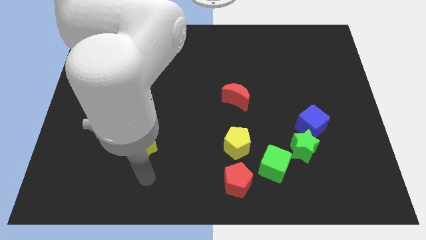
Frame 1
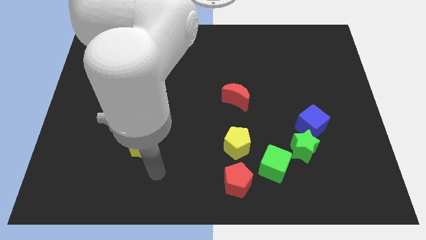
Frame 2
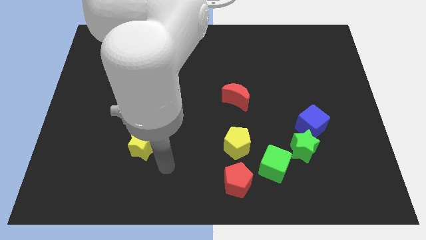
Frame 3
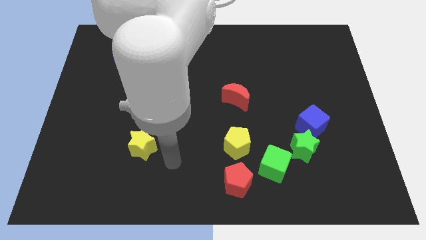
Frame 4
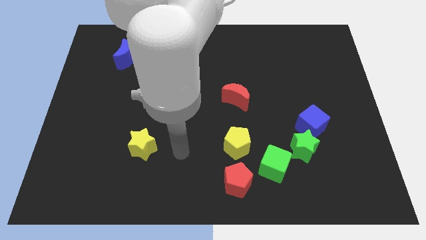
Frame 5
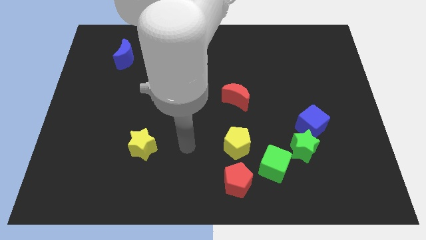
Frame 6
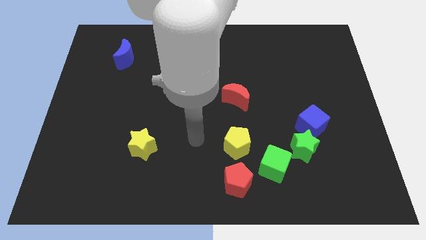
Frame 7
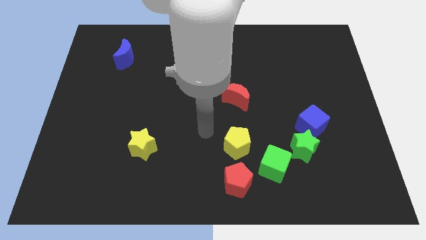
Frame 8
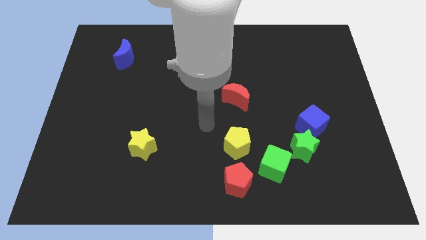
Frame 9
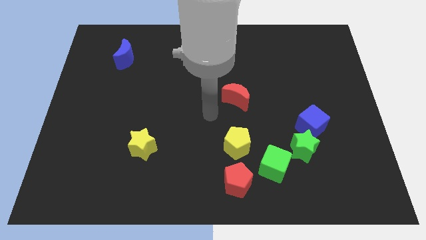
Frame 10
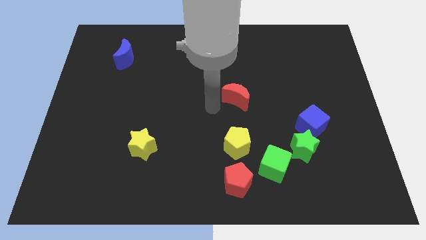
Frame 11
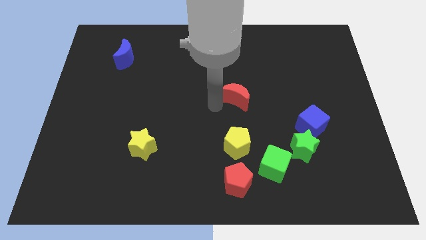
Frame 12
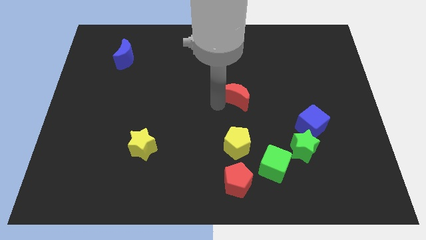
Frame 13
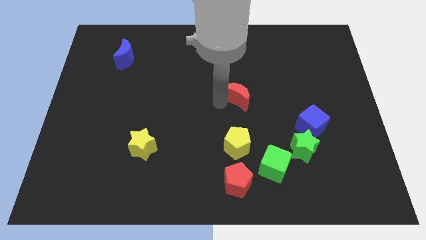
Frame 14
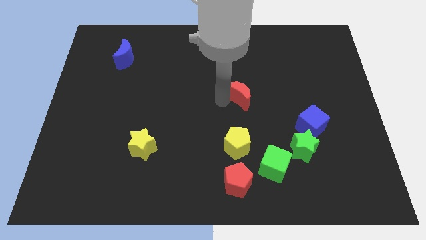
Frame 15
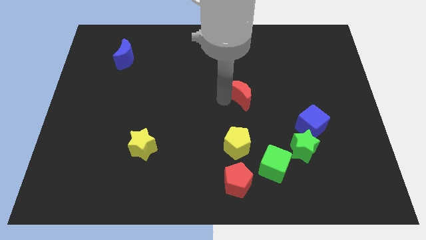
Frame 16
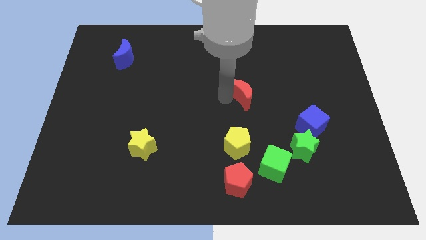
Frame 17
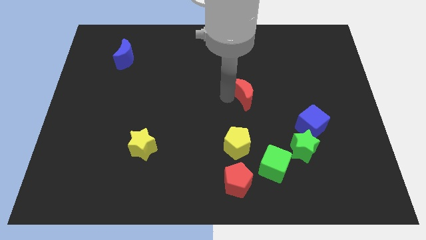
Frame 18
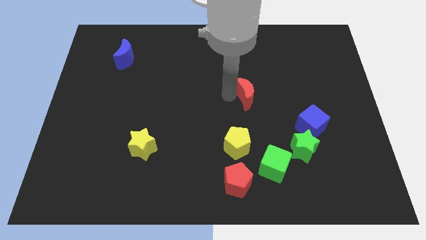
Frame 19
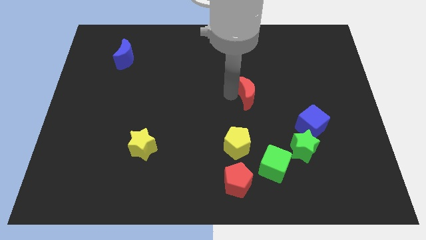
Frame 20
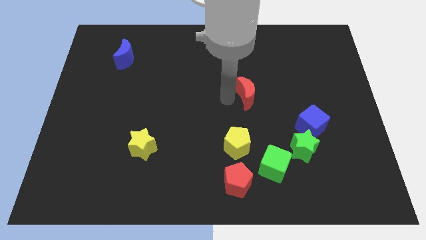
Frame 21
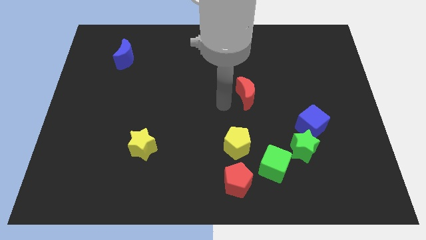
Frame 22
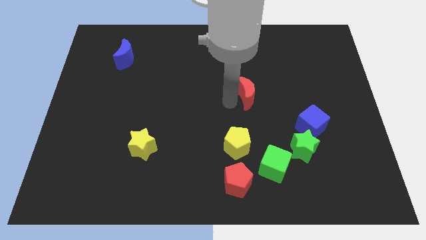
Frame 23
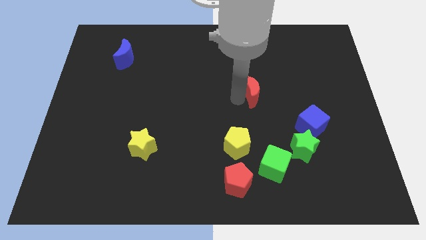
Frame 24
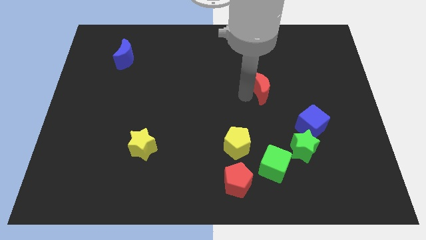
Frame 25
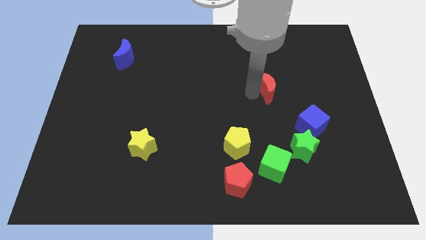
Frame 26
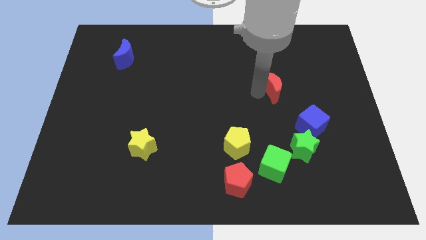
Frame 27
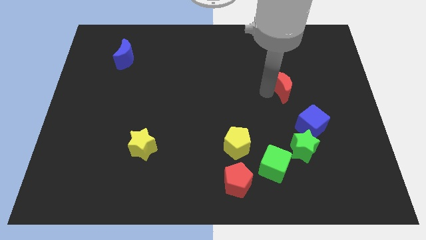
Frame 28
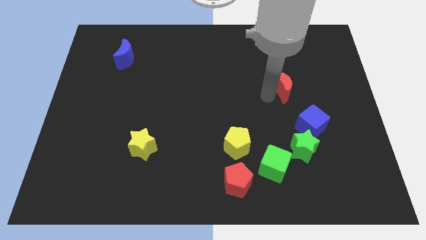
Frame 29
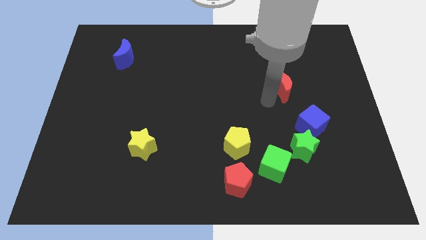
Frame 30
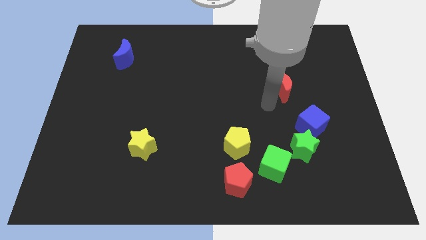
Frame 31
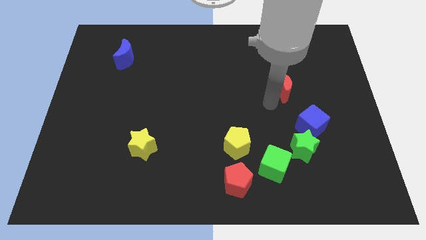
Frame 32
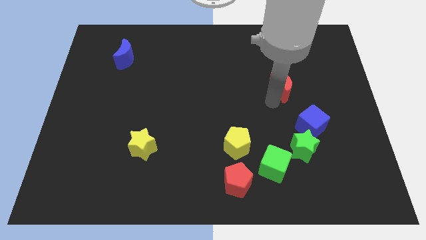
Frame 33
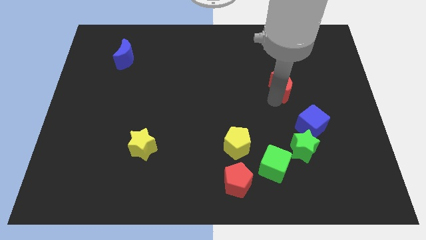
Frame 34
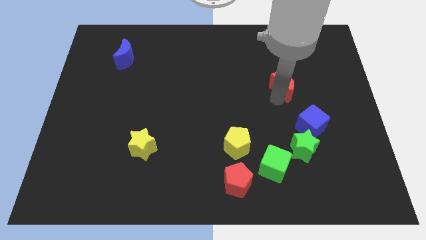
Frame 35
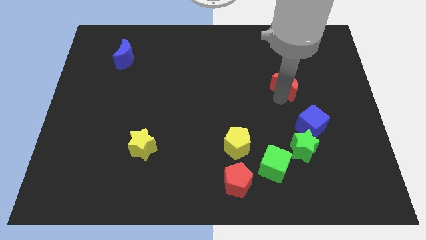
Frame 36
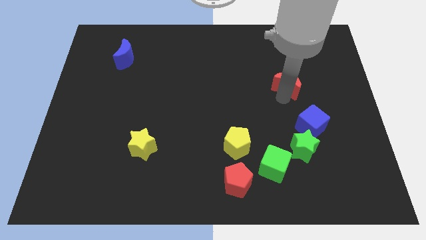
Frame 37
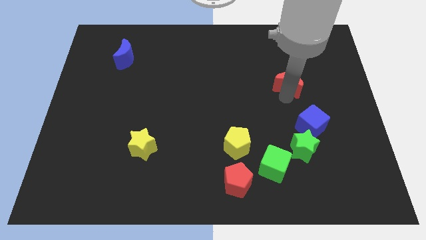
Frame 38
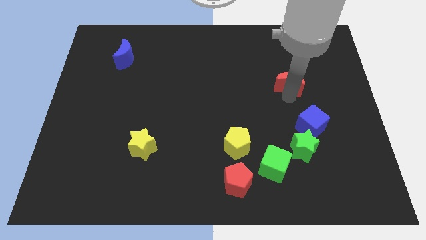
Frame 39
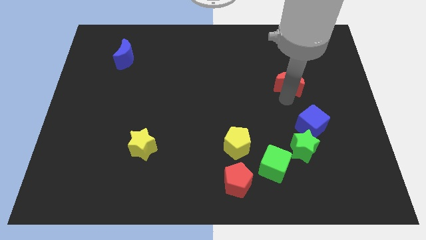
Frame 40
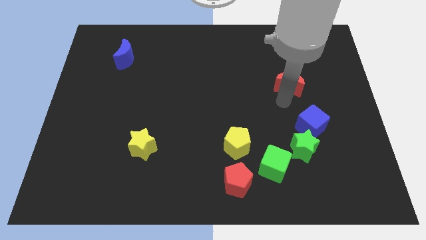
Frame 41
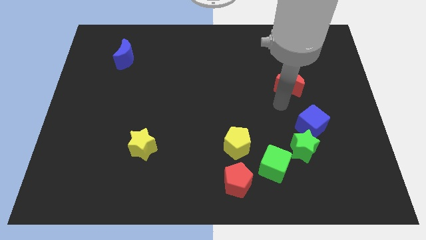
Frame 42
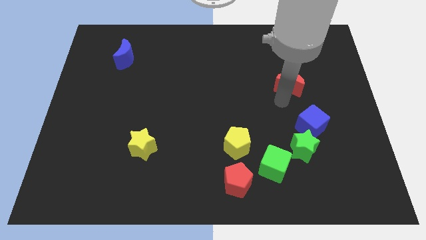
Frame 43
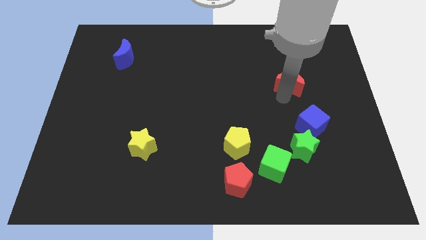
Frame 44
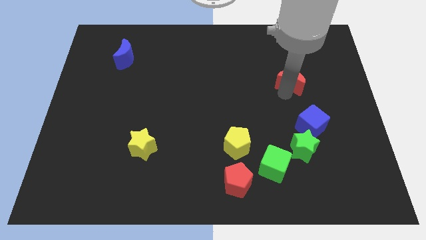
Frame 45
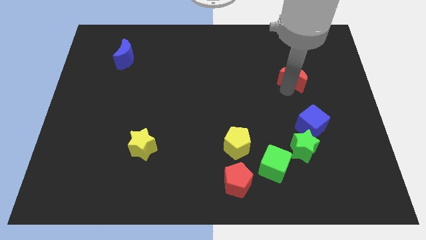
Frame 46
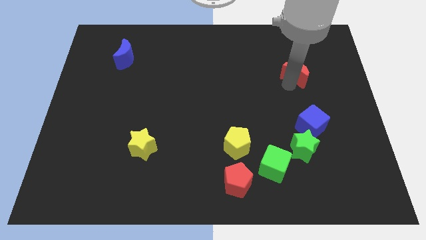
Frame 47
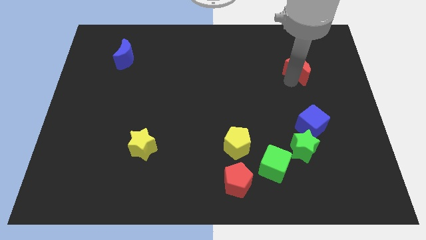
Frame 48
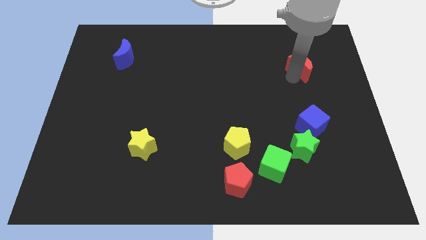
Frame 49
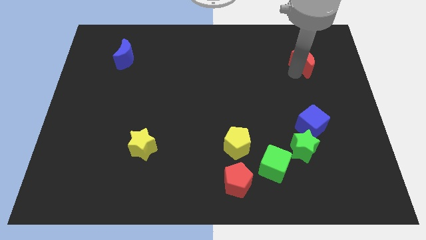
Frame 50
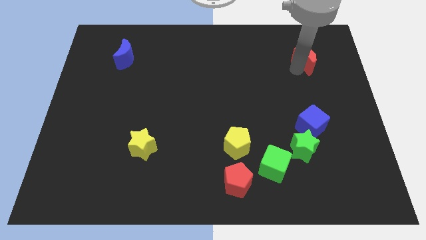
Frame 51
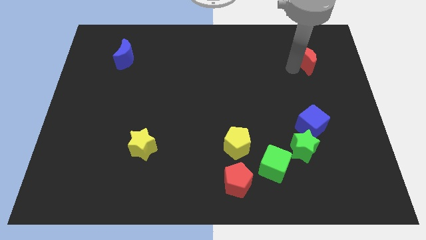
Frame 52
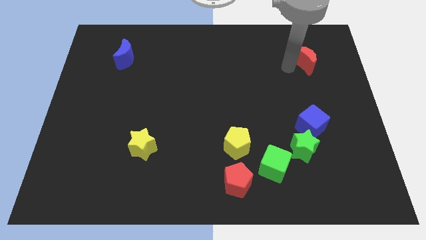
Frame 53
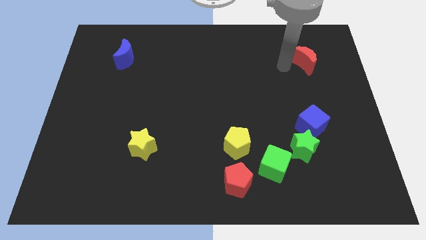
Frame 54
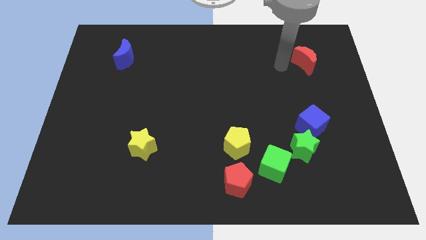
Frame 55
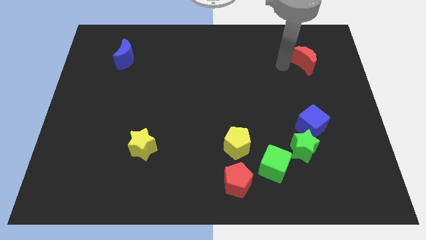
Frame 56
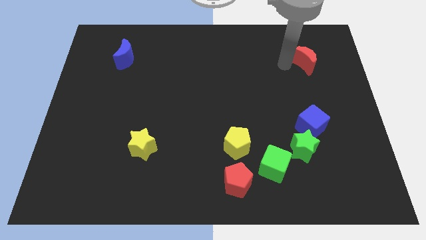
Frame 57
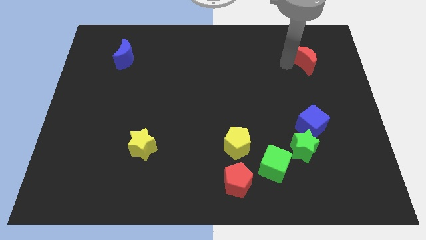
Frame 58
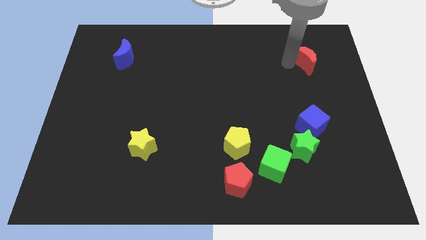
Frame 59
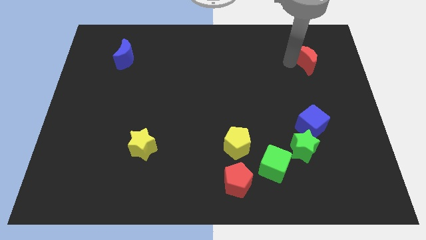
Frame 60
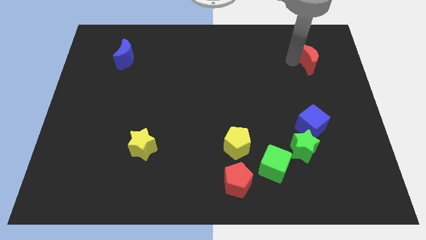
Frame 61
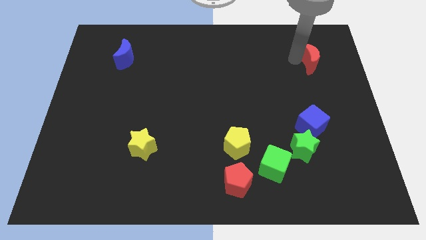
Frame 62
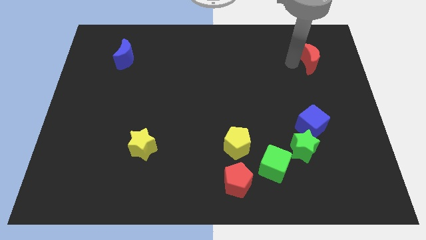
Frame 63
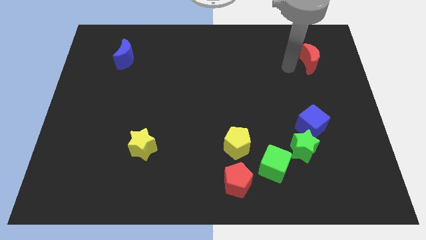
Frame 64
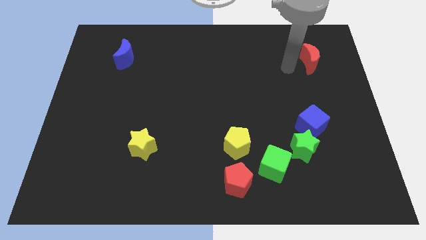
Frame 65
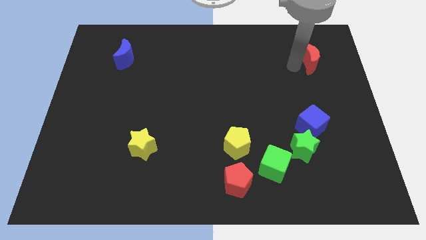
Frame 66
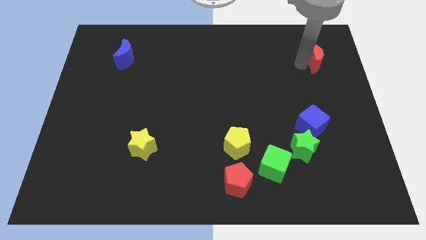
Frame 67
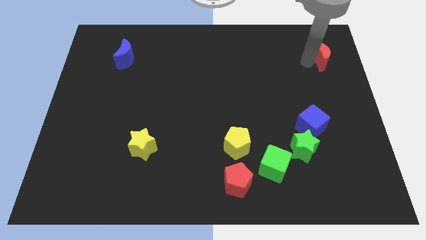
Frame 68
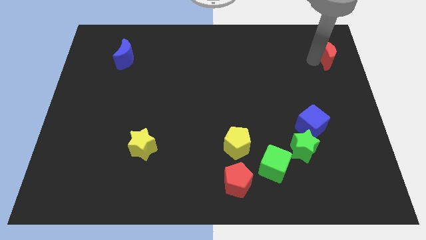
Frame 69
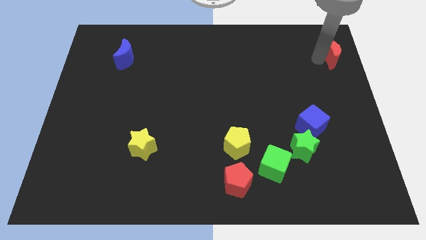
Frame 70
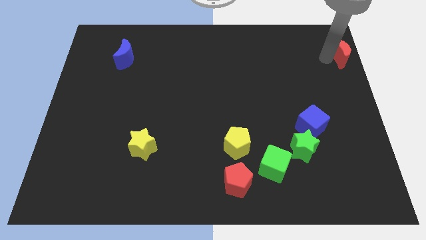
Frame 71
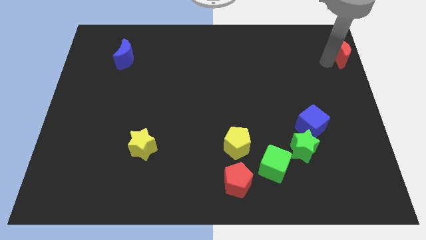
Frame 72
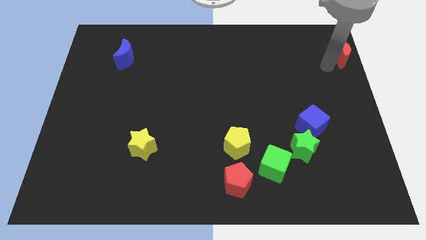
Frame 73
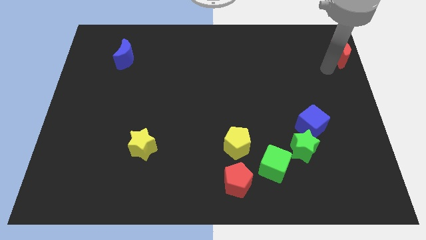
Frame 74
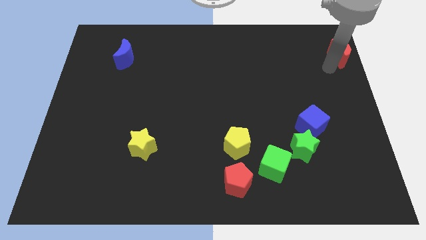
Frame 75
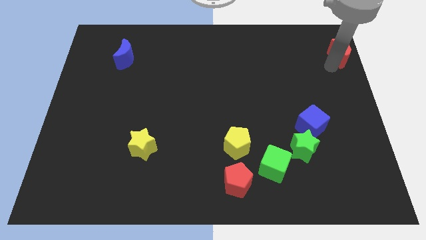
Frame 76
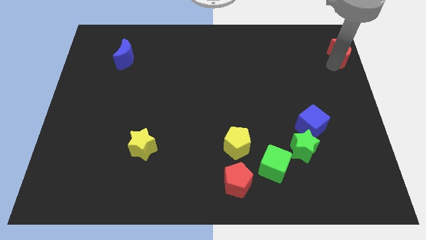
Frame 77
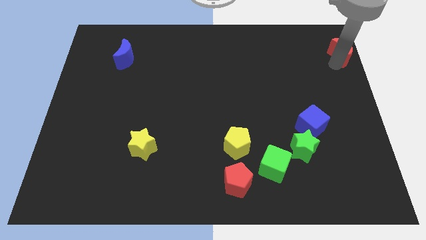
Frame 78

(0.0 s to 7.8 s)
push the red moon to the top right
